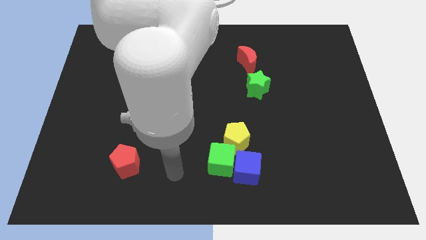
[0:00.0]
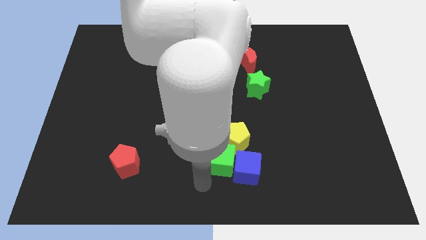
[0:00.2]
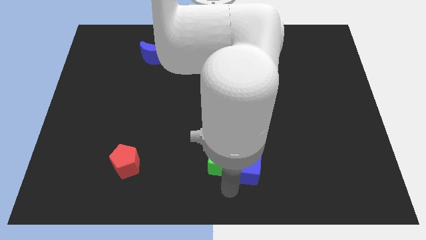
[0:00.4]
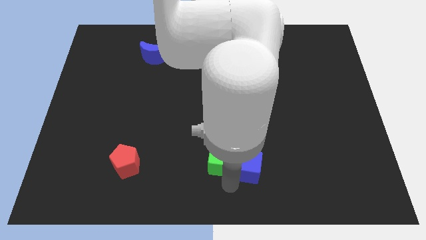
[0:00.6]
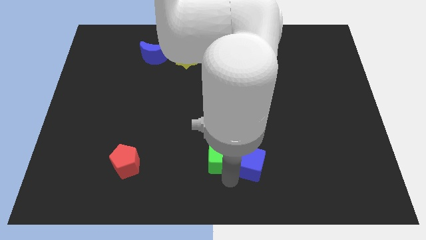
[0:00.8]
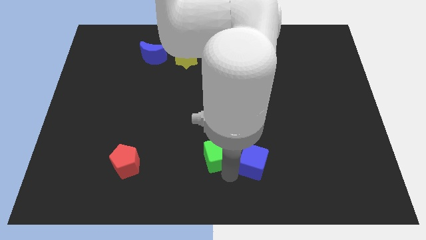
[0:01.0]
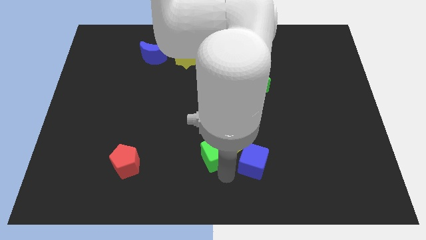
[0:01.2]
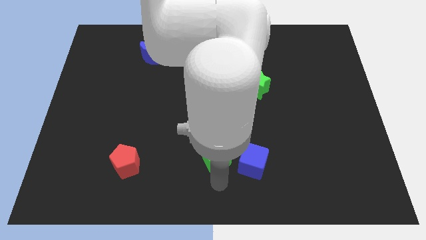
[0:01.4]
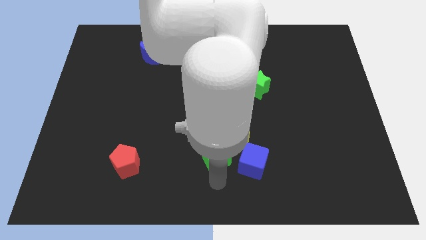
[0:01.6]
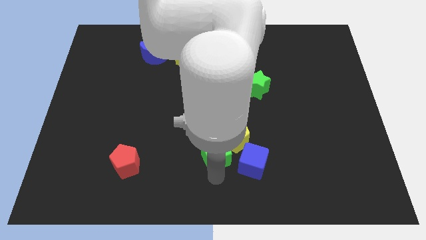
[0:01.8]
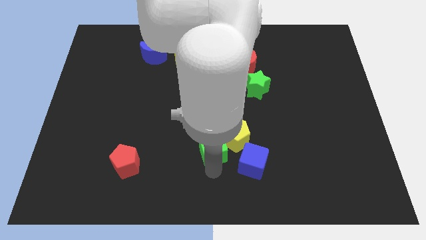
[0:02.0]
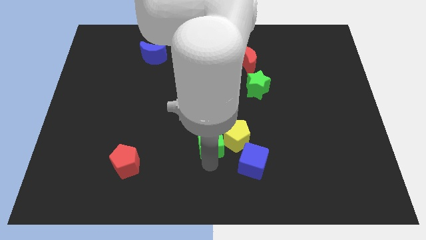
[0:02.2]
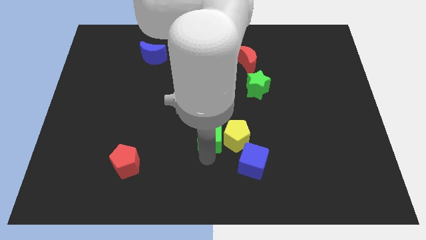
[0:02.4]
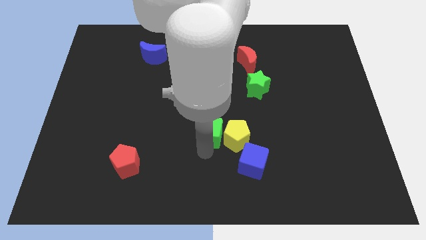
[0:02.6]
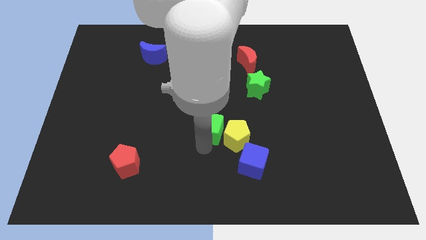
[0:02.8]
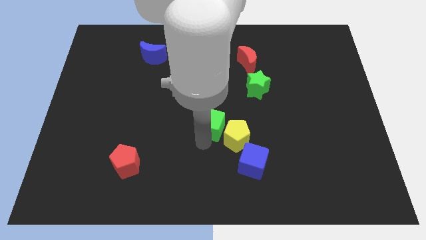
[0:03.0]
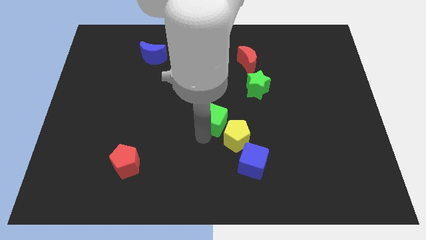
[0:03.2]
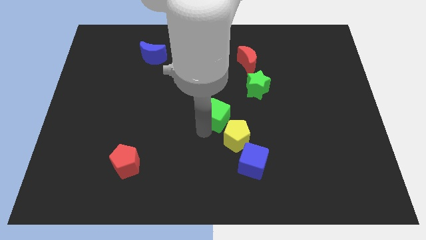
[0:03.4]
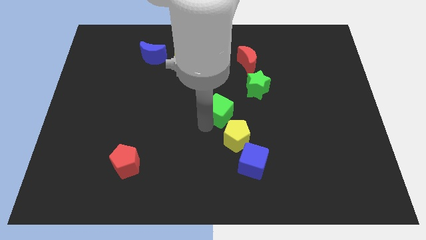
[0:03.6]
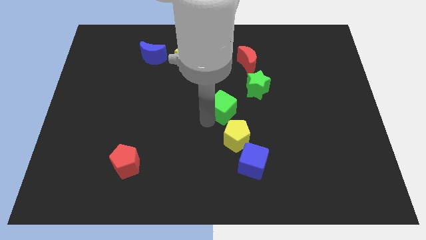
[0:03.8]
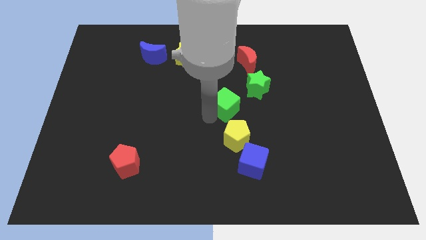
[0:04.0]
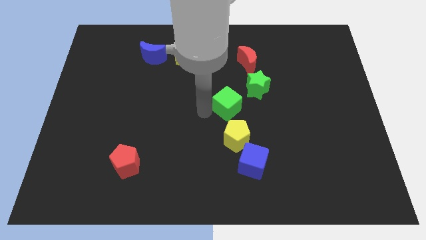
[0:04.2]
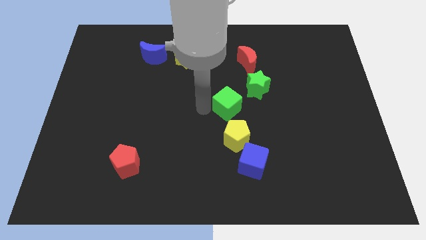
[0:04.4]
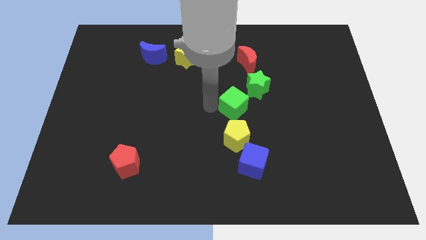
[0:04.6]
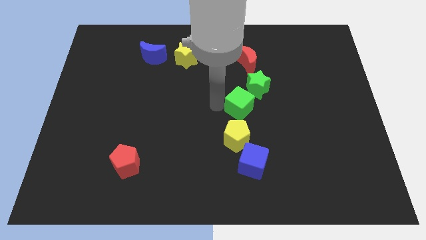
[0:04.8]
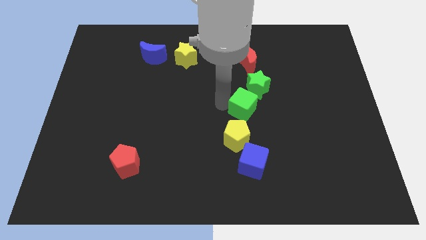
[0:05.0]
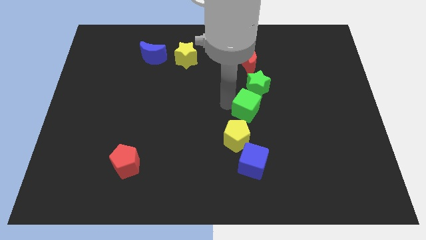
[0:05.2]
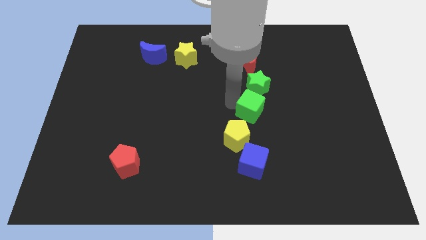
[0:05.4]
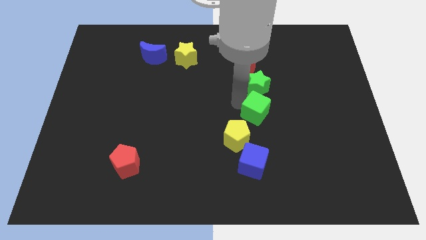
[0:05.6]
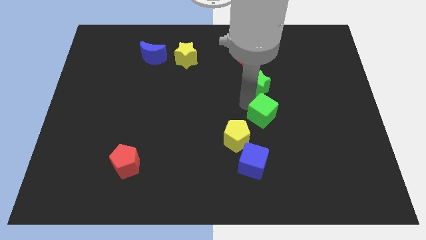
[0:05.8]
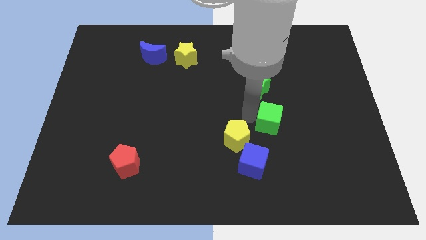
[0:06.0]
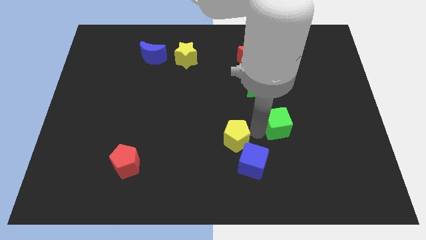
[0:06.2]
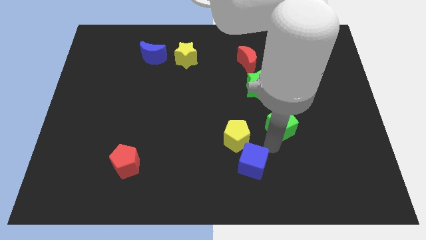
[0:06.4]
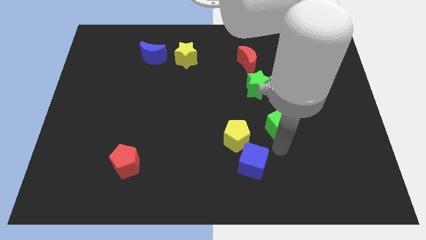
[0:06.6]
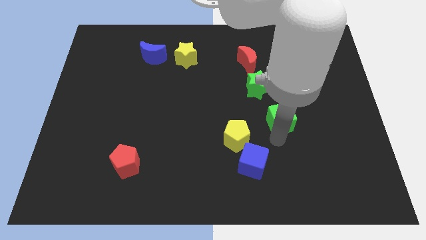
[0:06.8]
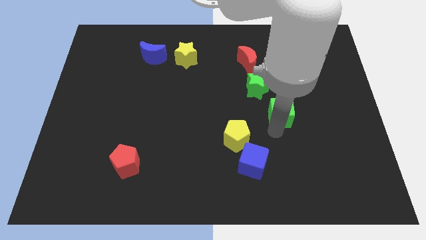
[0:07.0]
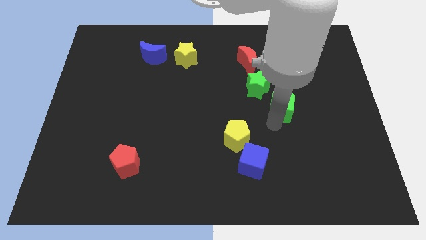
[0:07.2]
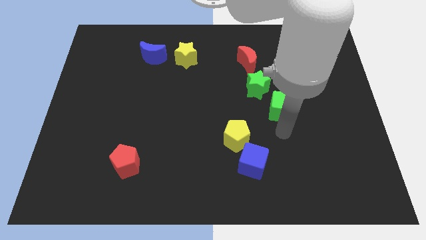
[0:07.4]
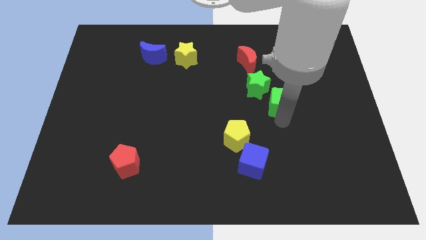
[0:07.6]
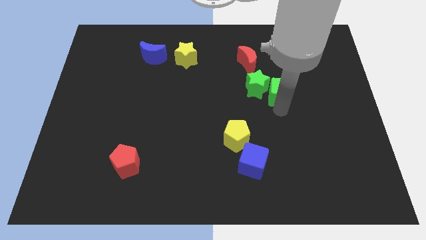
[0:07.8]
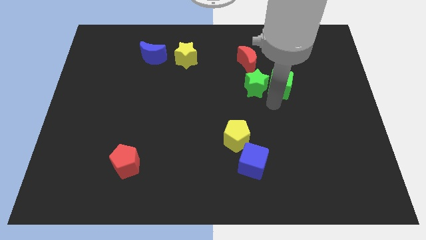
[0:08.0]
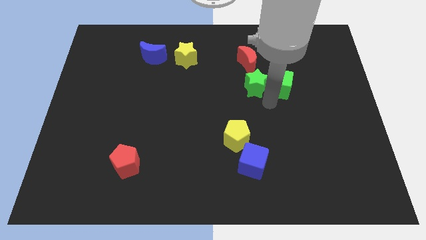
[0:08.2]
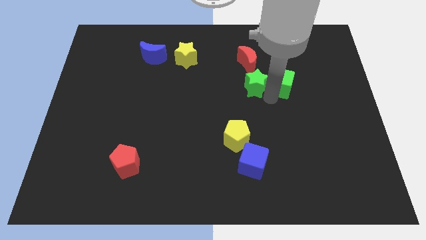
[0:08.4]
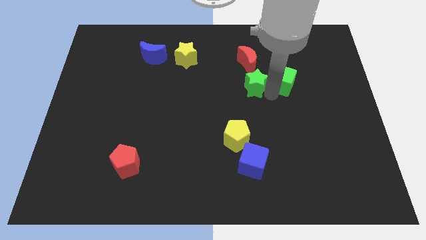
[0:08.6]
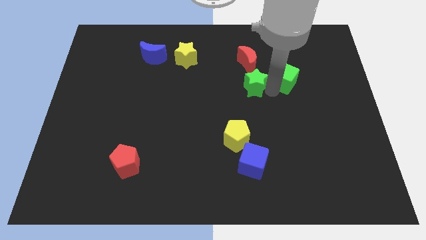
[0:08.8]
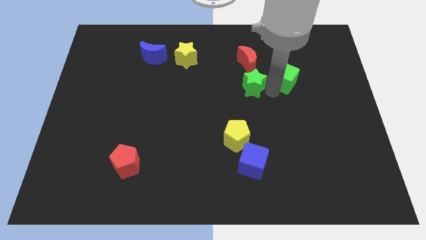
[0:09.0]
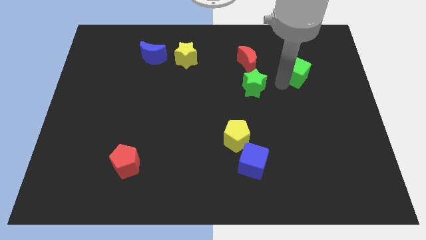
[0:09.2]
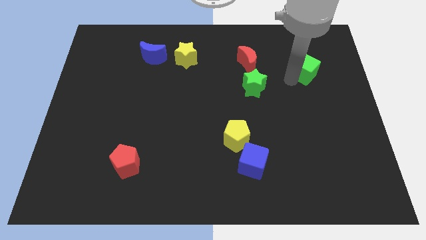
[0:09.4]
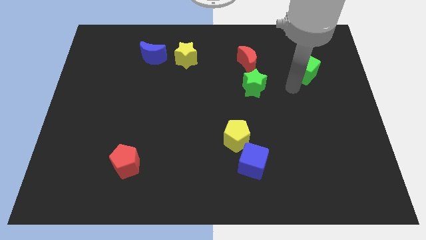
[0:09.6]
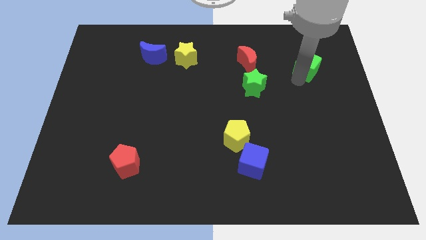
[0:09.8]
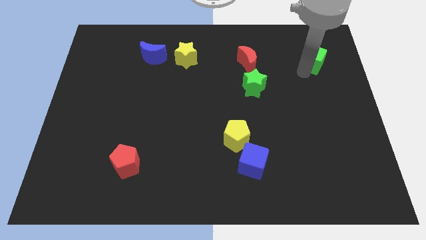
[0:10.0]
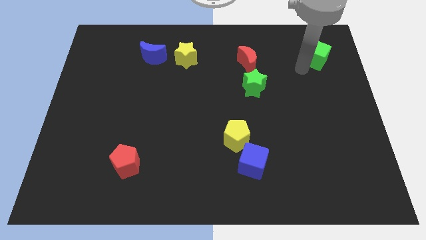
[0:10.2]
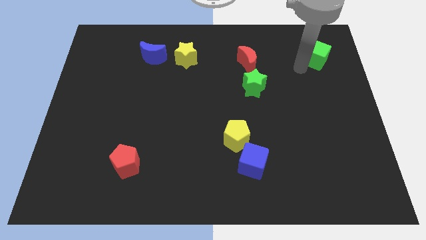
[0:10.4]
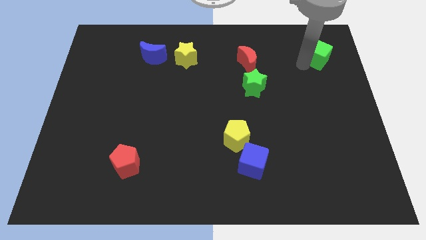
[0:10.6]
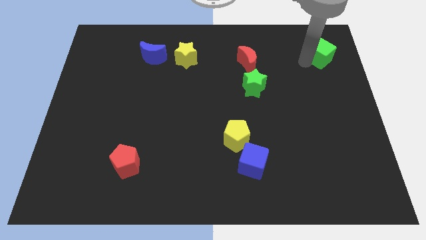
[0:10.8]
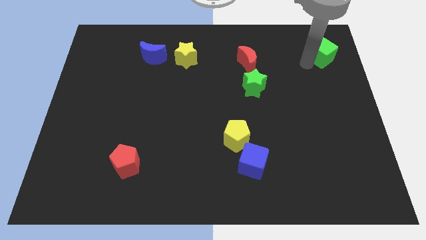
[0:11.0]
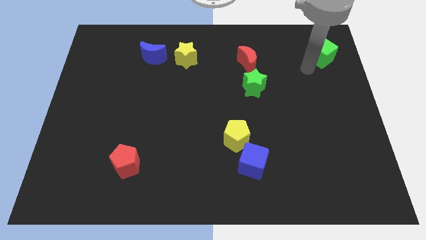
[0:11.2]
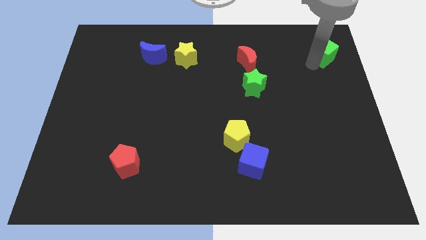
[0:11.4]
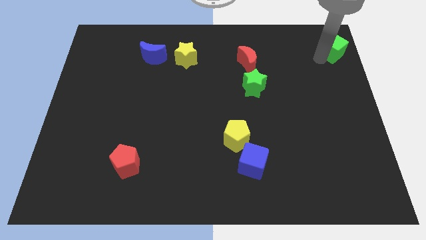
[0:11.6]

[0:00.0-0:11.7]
push the green cube to the top right of the board
